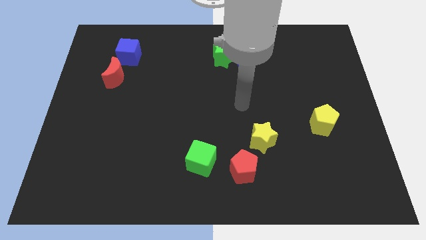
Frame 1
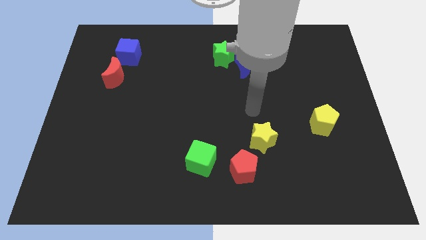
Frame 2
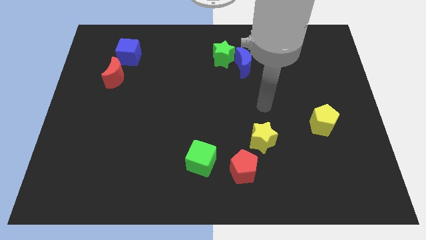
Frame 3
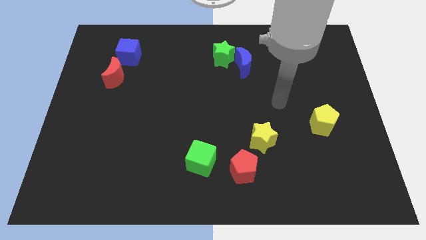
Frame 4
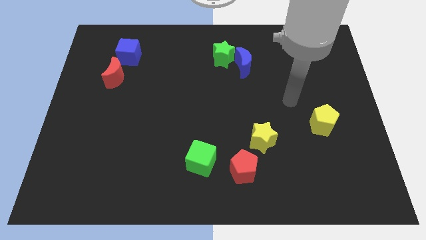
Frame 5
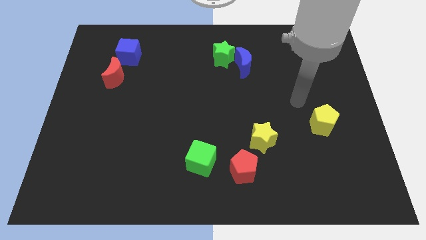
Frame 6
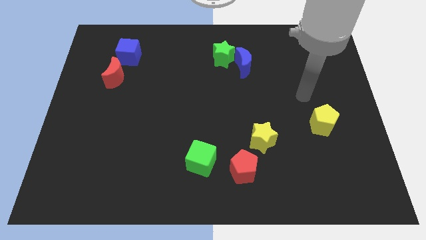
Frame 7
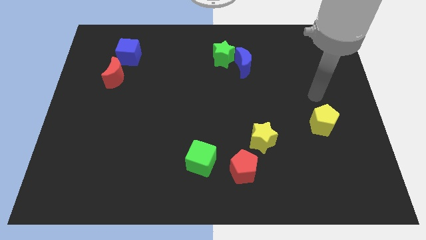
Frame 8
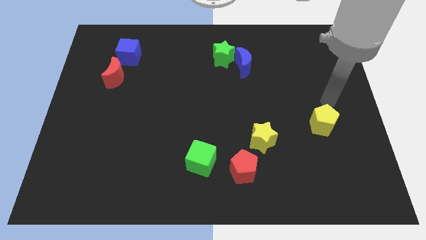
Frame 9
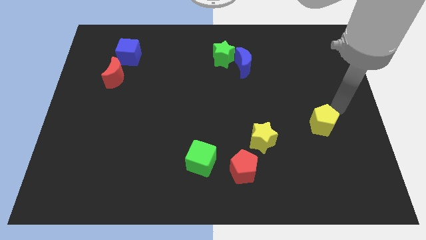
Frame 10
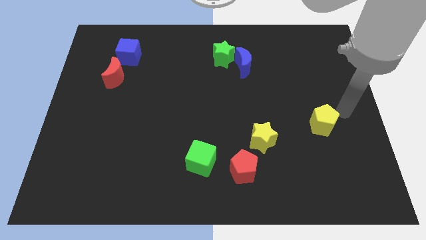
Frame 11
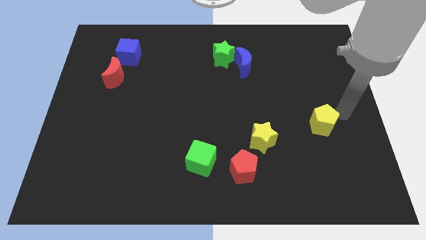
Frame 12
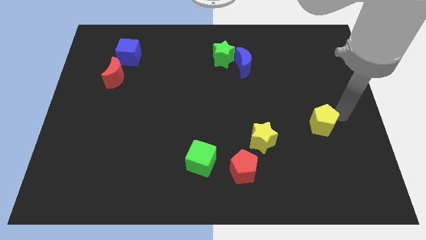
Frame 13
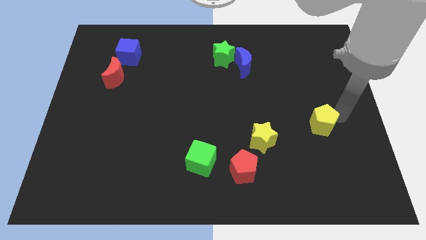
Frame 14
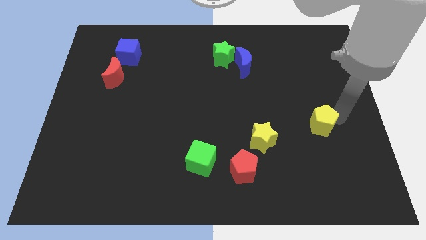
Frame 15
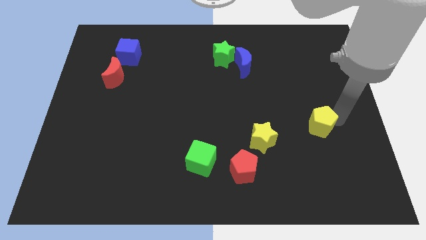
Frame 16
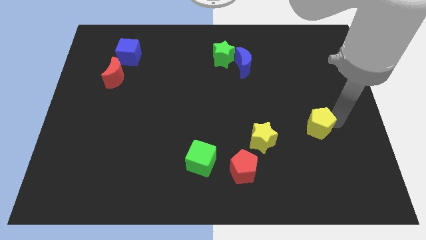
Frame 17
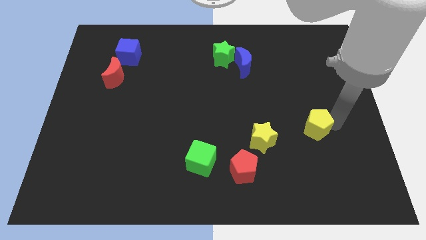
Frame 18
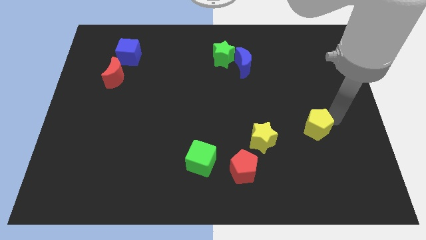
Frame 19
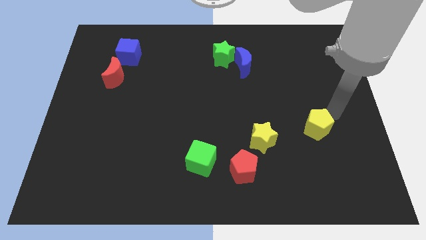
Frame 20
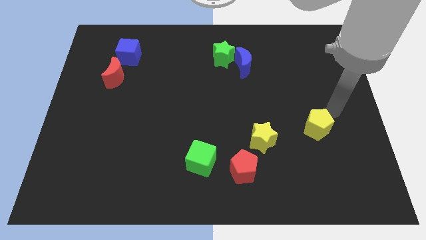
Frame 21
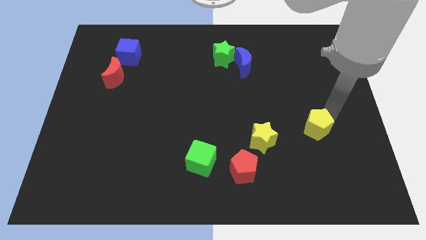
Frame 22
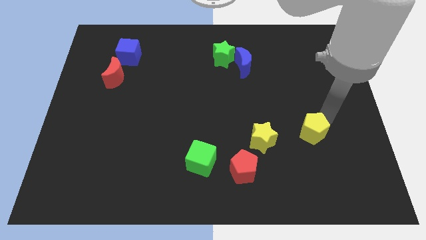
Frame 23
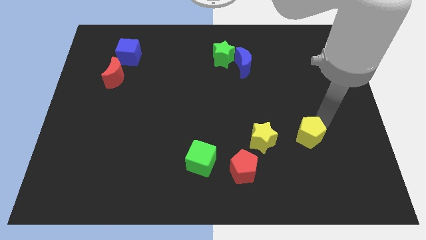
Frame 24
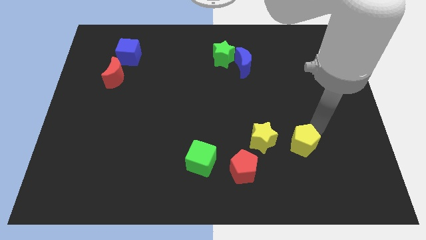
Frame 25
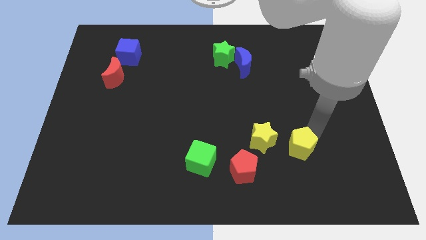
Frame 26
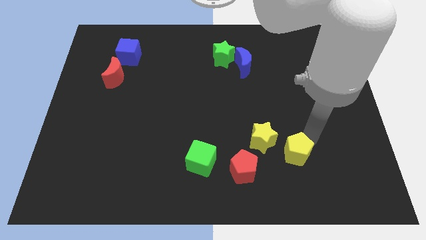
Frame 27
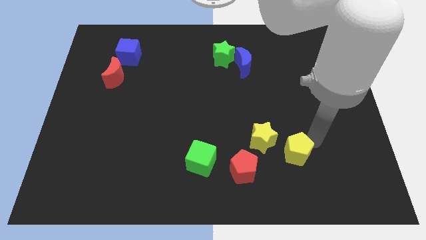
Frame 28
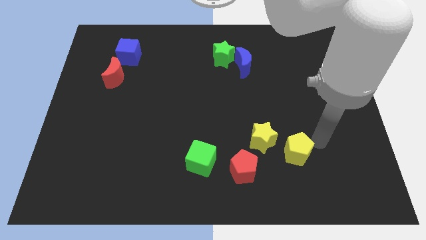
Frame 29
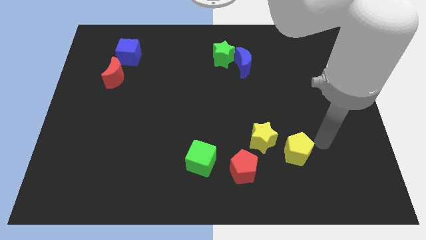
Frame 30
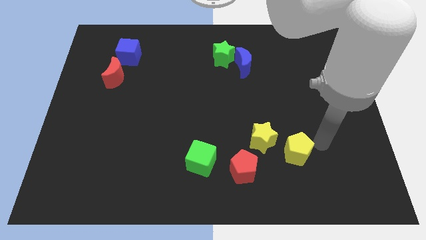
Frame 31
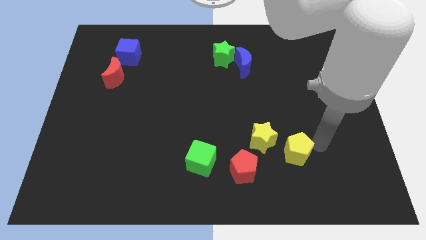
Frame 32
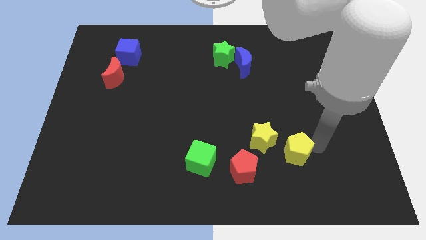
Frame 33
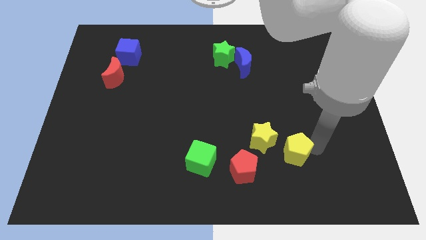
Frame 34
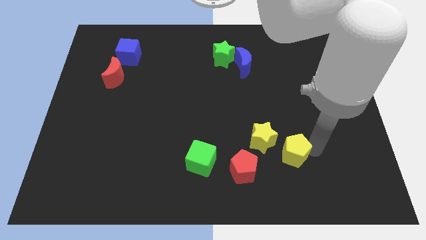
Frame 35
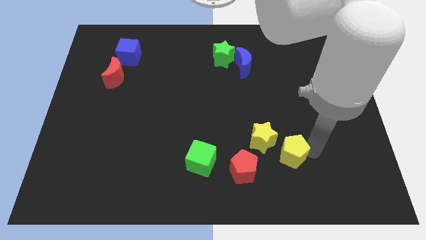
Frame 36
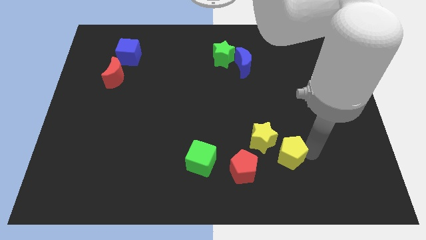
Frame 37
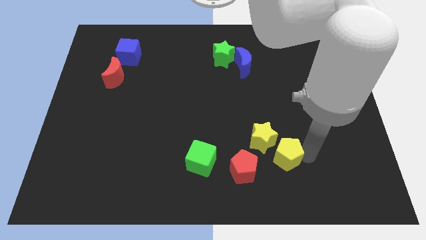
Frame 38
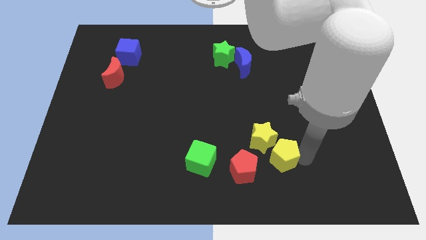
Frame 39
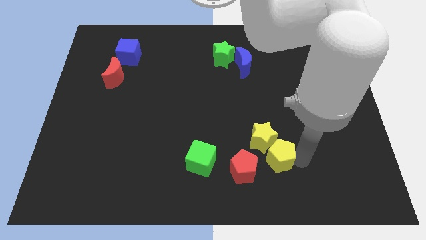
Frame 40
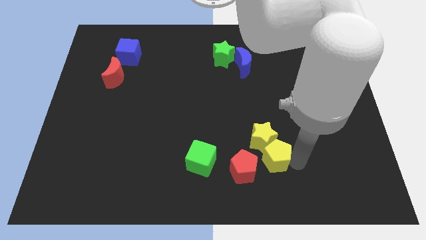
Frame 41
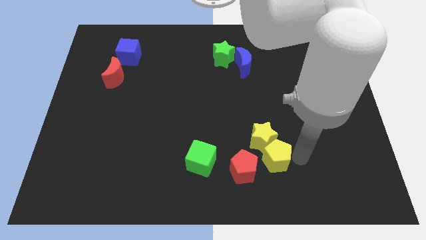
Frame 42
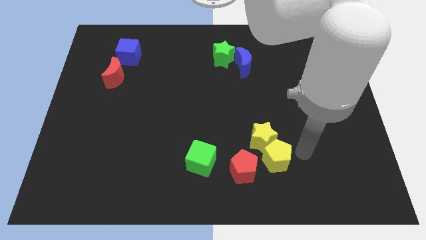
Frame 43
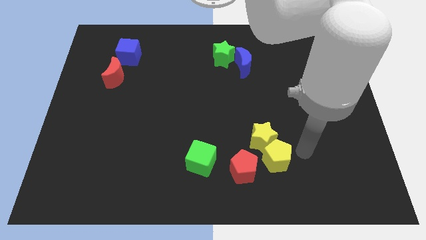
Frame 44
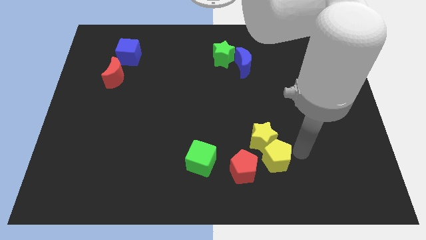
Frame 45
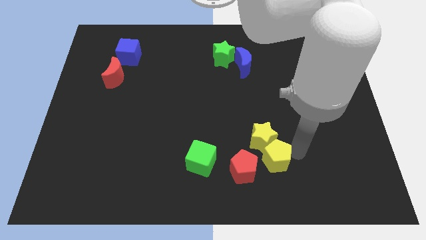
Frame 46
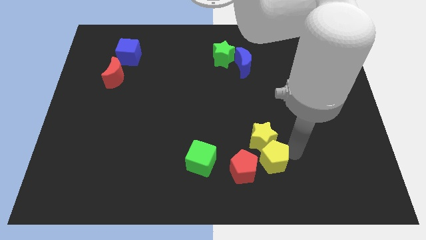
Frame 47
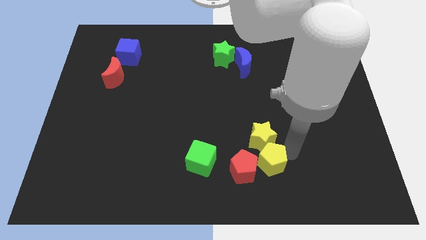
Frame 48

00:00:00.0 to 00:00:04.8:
slide the yellow pentagon close to the red pentagon

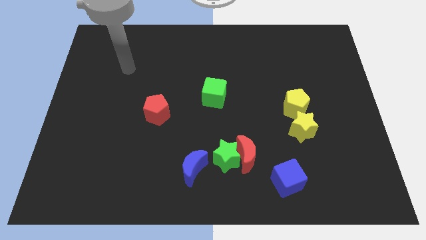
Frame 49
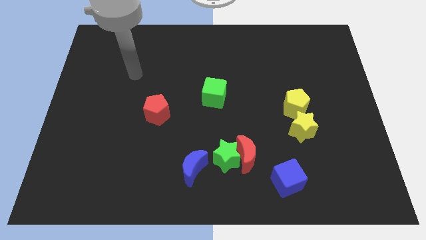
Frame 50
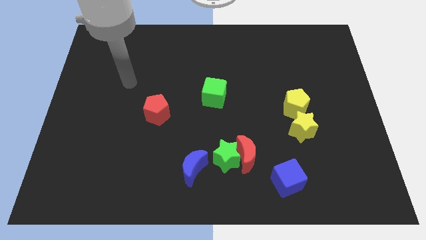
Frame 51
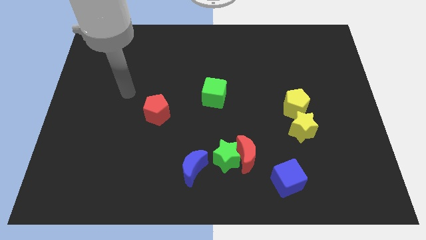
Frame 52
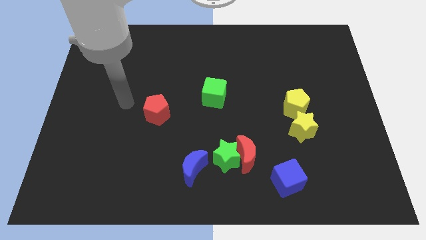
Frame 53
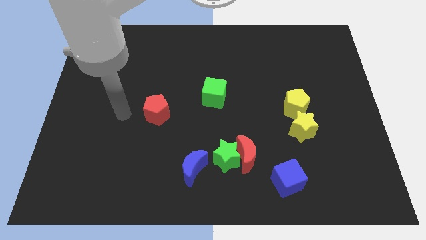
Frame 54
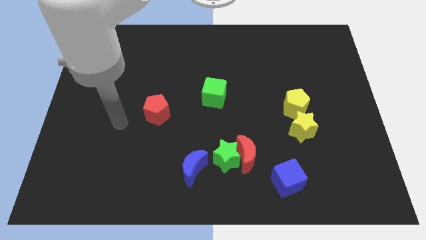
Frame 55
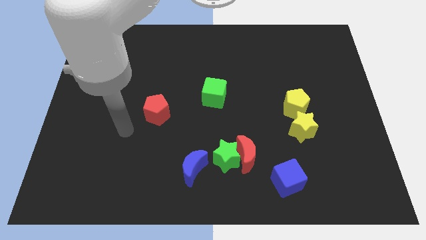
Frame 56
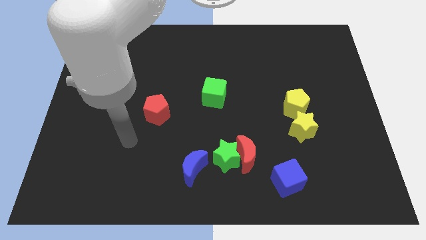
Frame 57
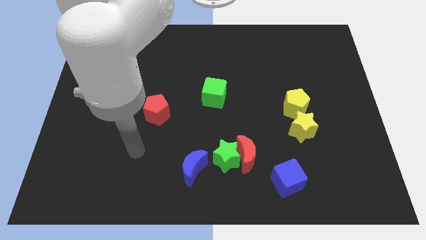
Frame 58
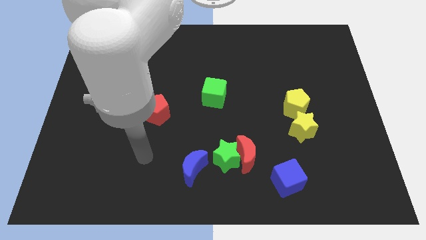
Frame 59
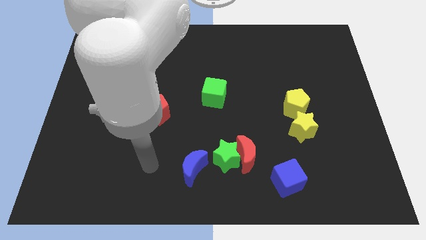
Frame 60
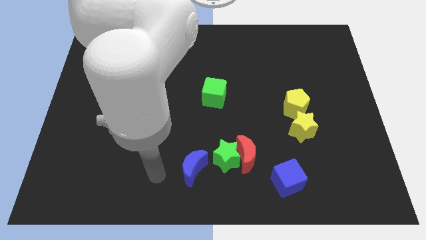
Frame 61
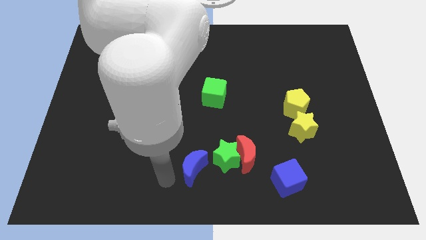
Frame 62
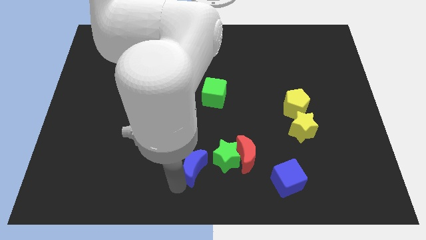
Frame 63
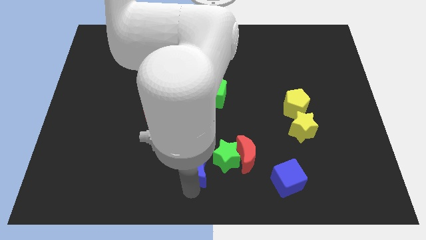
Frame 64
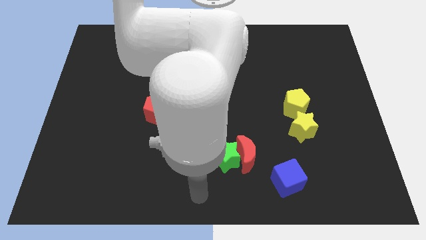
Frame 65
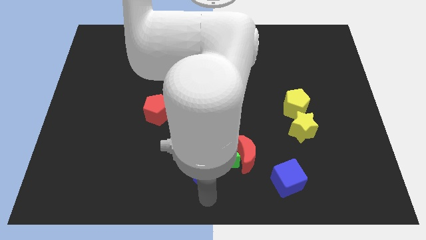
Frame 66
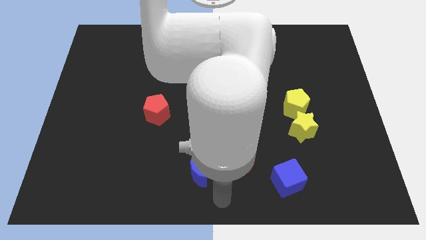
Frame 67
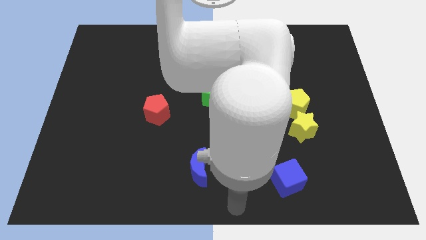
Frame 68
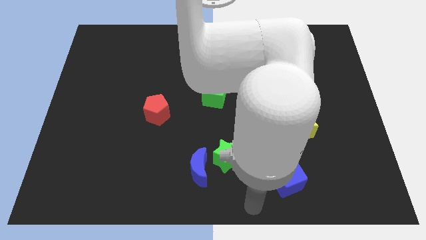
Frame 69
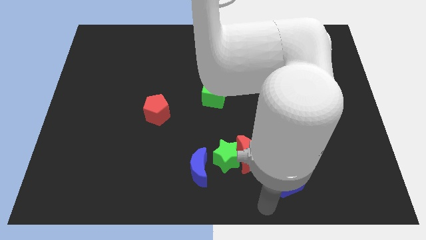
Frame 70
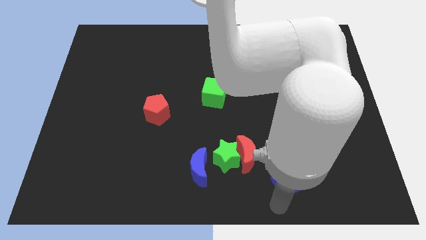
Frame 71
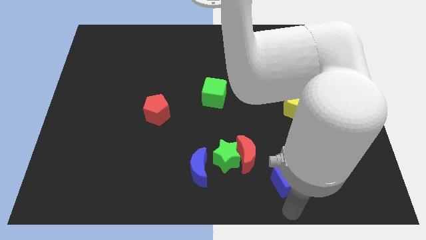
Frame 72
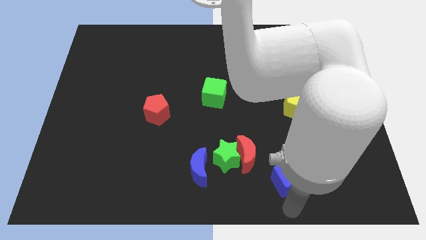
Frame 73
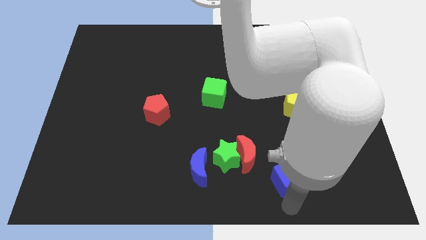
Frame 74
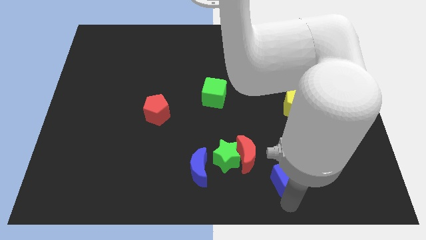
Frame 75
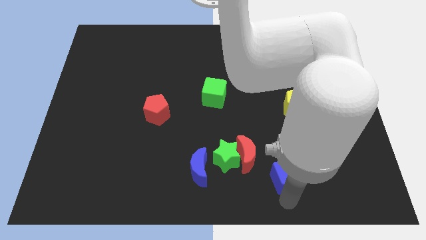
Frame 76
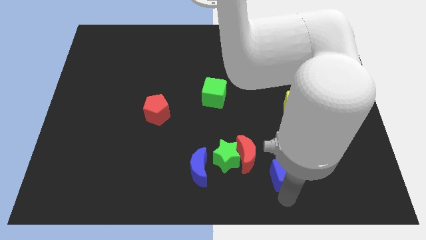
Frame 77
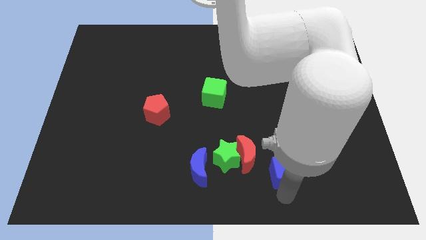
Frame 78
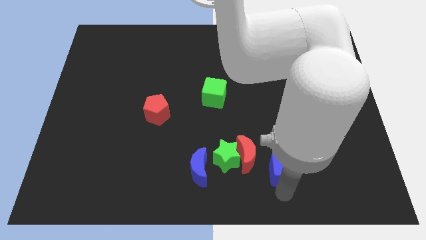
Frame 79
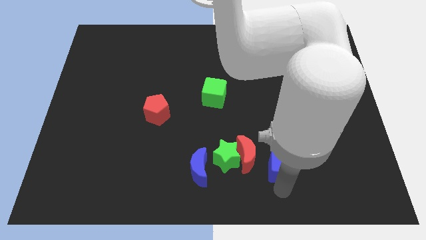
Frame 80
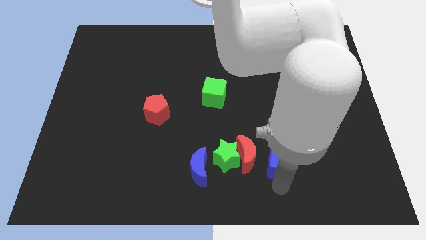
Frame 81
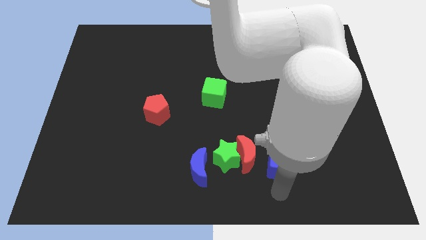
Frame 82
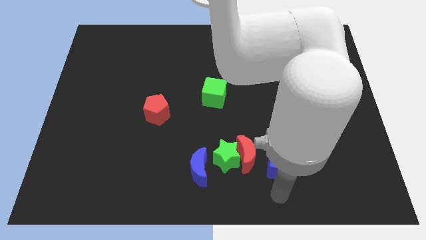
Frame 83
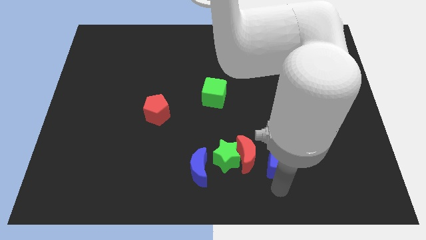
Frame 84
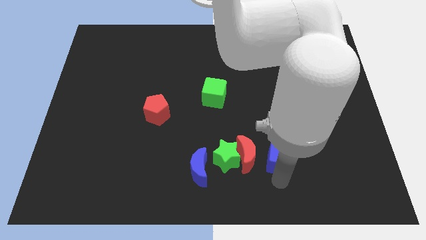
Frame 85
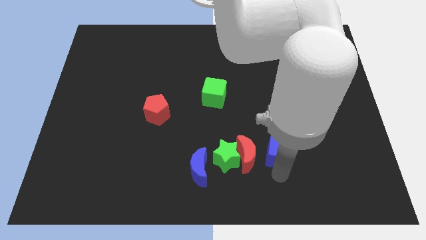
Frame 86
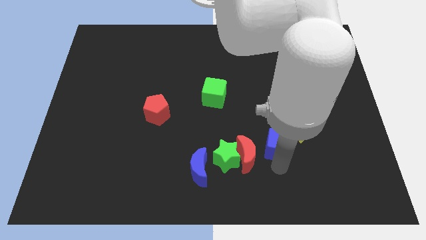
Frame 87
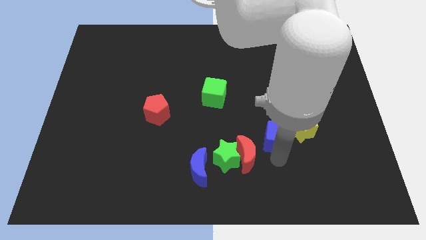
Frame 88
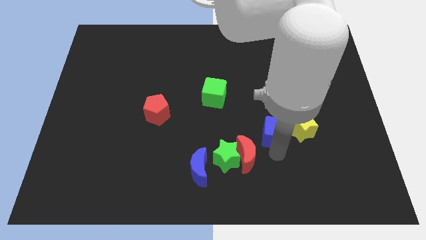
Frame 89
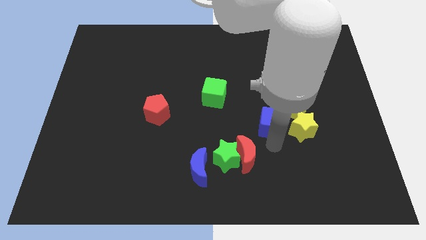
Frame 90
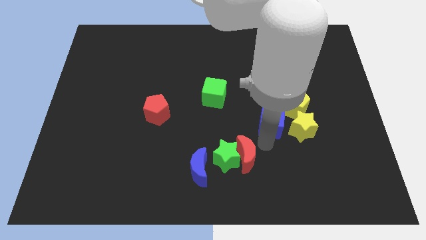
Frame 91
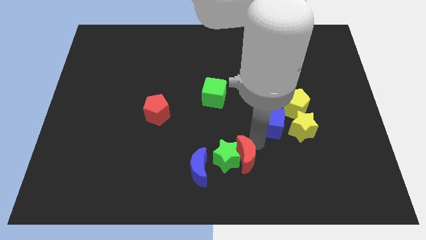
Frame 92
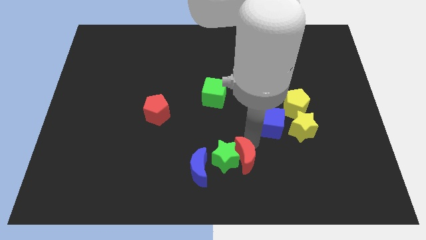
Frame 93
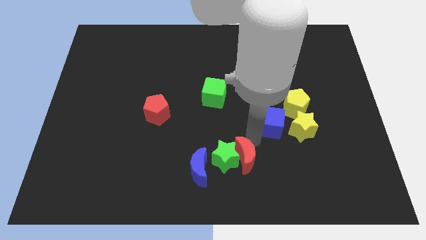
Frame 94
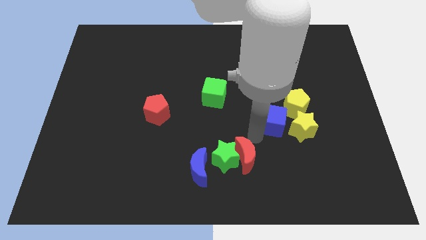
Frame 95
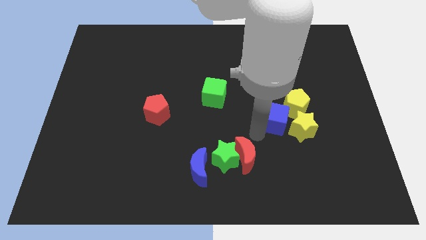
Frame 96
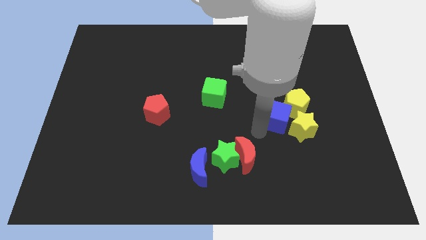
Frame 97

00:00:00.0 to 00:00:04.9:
move the blue cube next to the yellow pentagon
